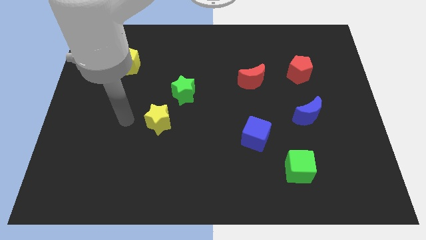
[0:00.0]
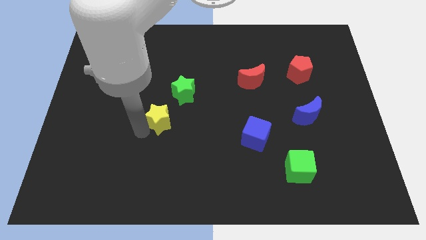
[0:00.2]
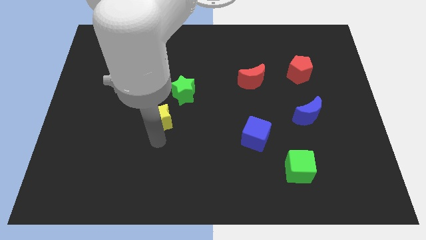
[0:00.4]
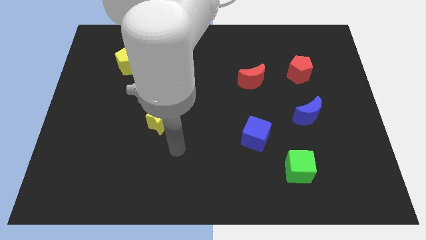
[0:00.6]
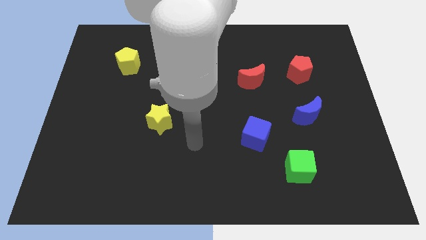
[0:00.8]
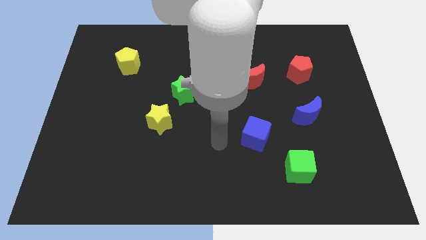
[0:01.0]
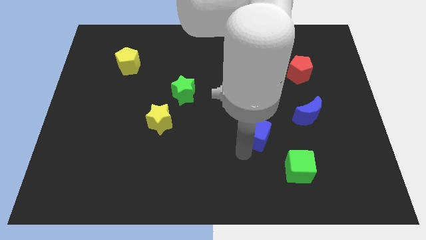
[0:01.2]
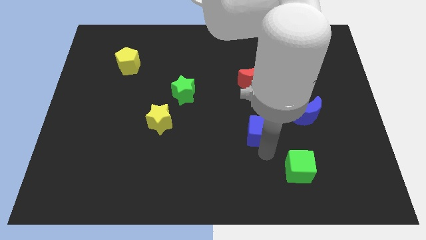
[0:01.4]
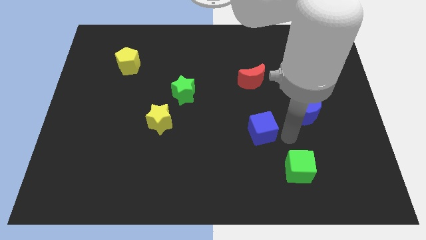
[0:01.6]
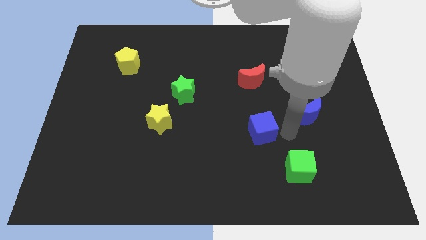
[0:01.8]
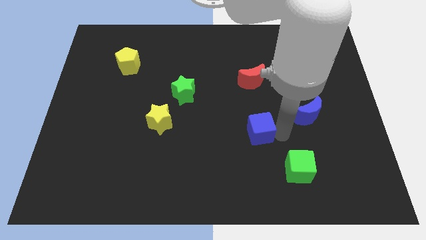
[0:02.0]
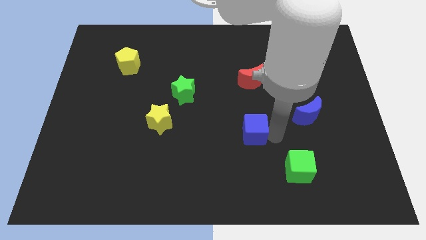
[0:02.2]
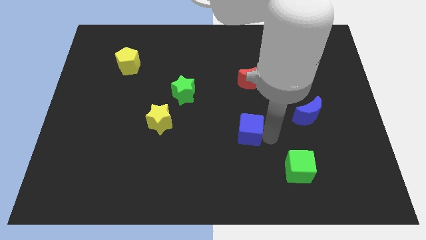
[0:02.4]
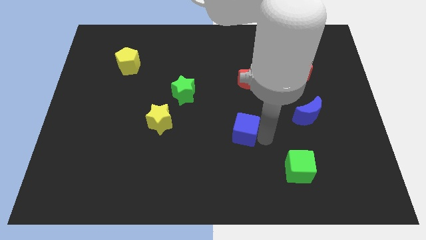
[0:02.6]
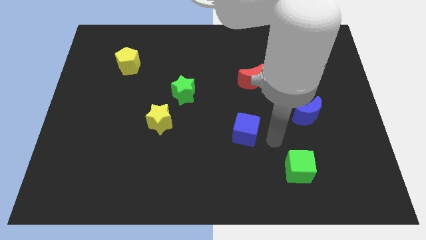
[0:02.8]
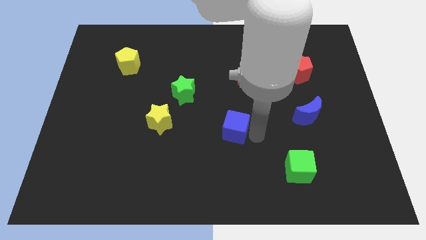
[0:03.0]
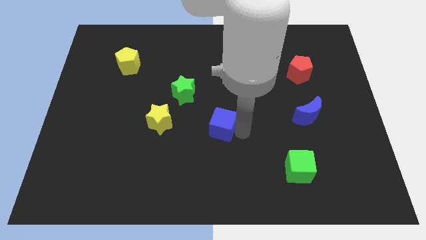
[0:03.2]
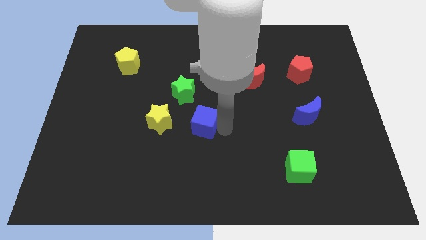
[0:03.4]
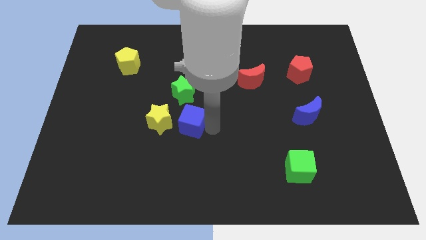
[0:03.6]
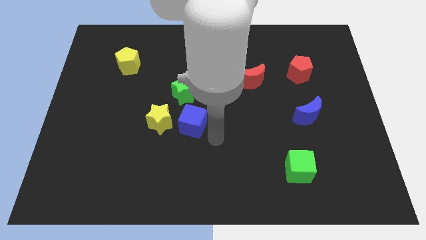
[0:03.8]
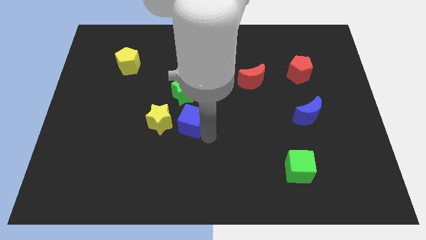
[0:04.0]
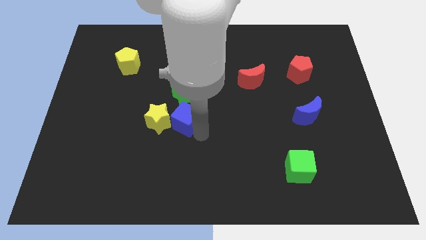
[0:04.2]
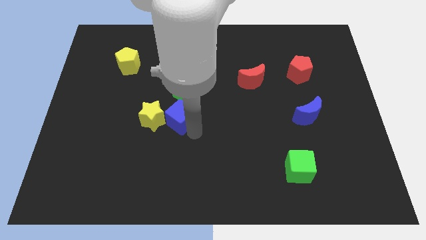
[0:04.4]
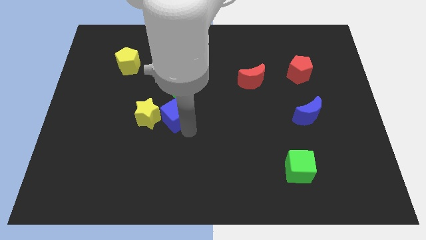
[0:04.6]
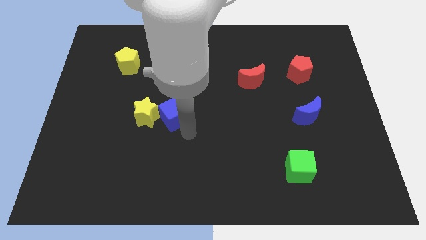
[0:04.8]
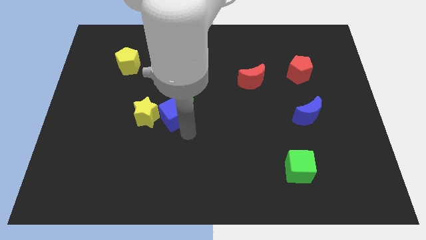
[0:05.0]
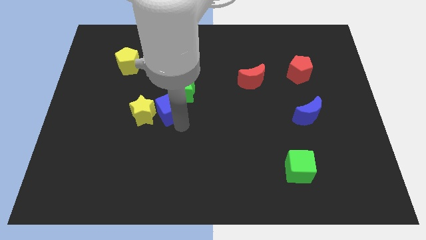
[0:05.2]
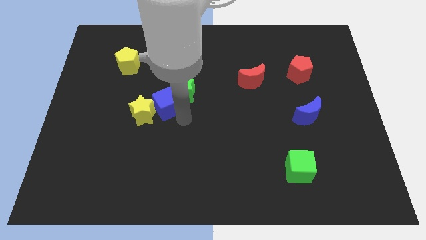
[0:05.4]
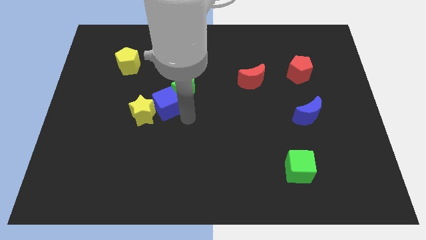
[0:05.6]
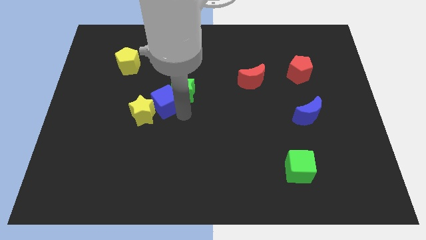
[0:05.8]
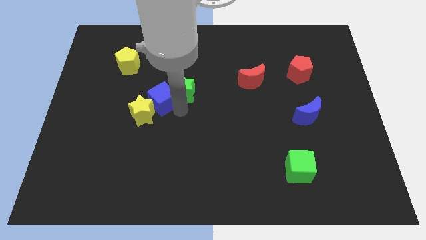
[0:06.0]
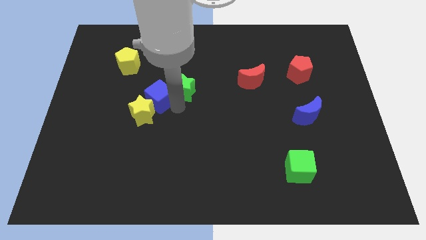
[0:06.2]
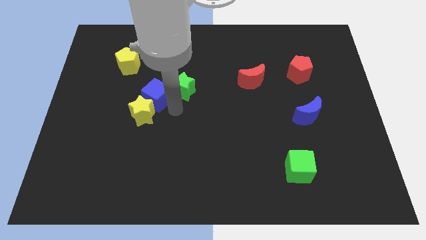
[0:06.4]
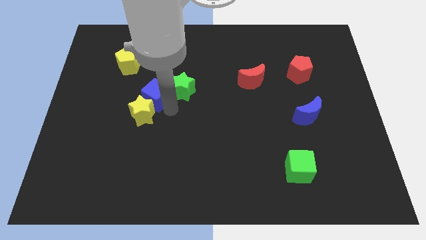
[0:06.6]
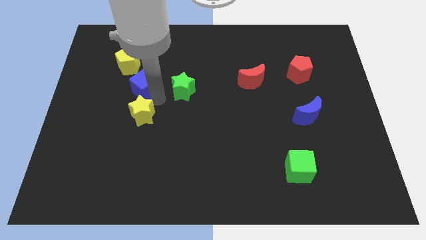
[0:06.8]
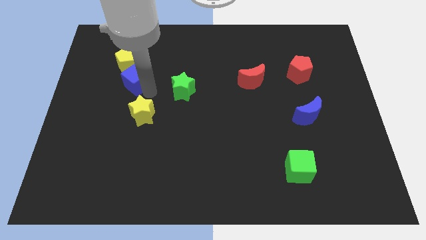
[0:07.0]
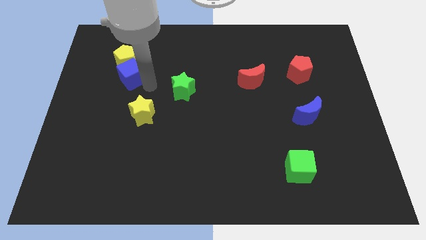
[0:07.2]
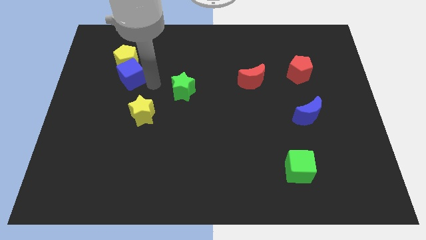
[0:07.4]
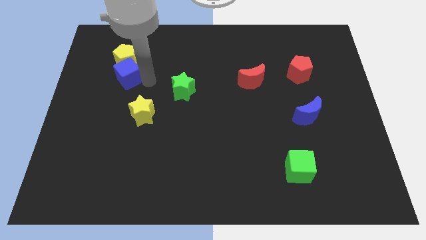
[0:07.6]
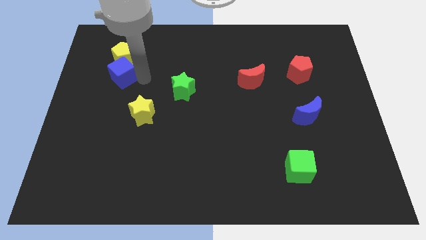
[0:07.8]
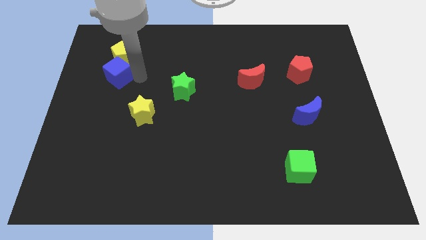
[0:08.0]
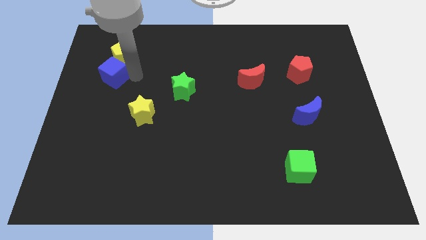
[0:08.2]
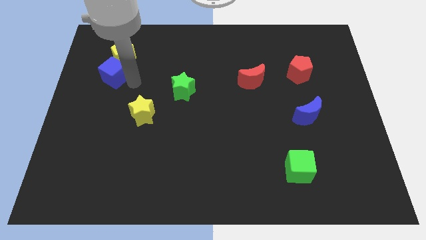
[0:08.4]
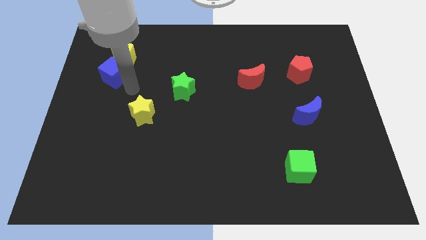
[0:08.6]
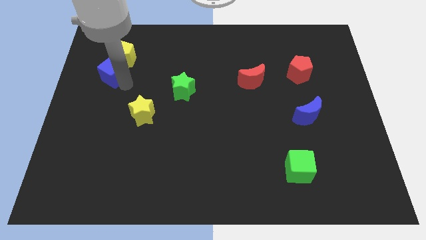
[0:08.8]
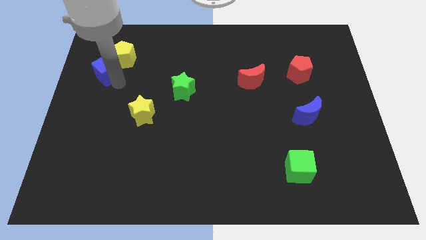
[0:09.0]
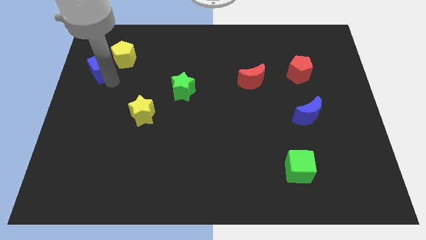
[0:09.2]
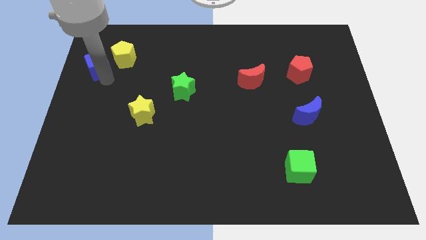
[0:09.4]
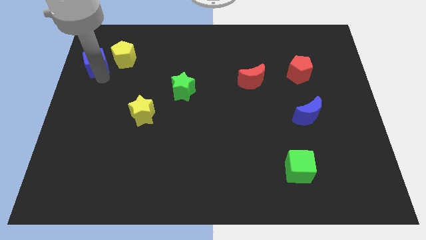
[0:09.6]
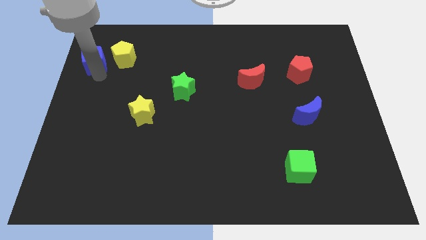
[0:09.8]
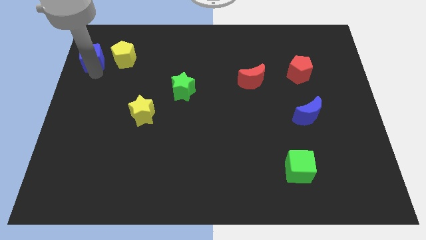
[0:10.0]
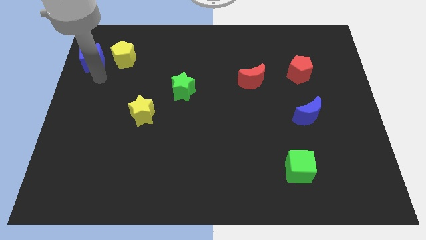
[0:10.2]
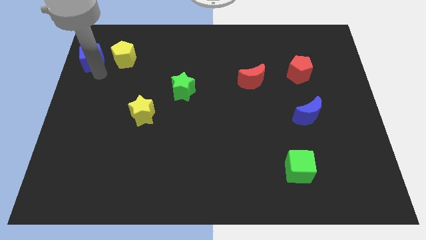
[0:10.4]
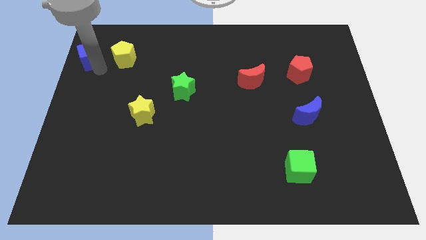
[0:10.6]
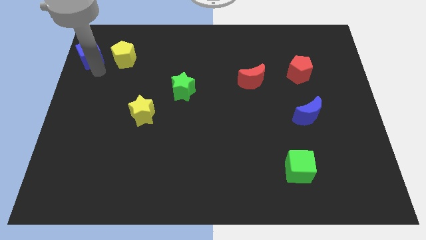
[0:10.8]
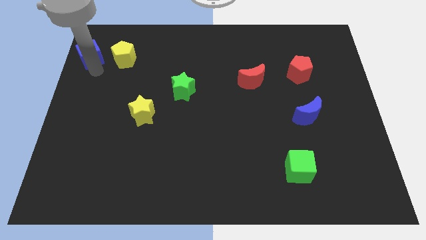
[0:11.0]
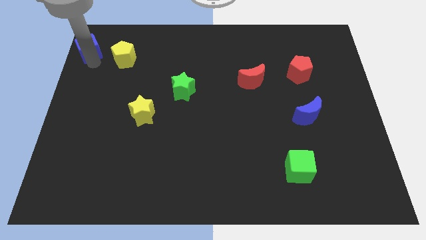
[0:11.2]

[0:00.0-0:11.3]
slide the blue cube to the top left of the board

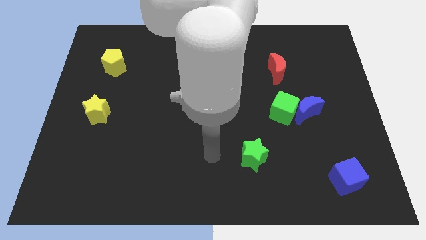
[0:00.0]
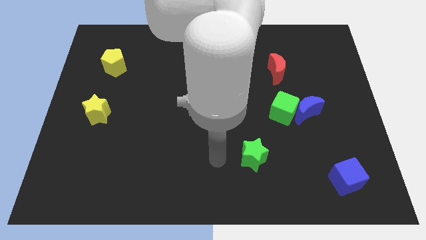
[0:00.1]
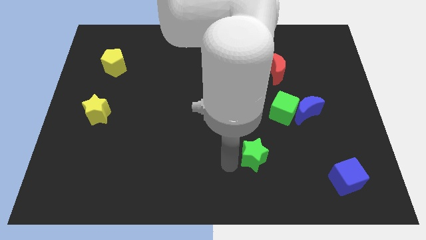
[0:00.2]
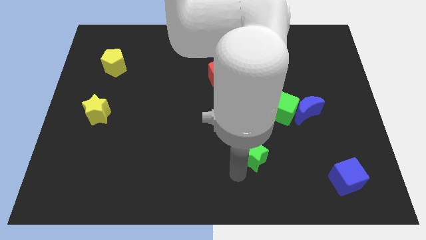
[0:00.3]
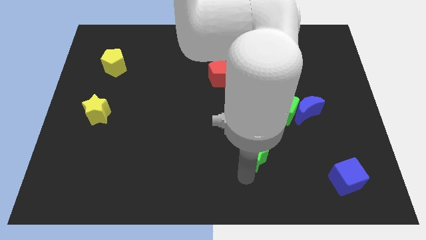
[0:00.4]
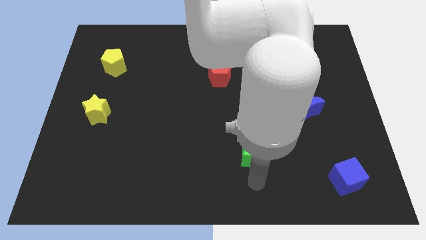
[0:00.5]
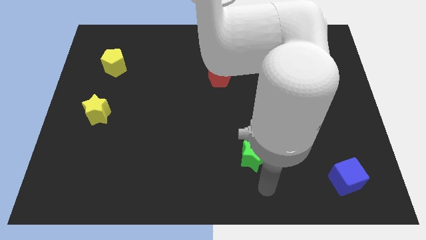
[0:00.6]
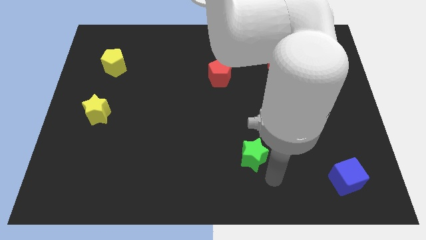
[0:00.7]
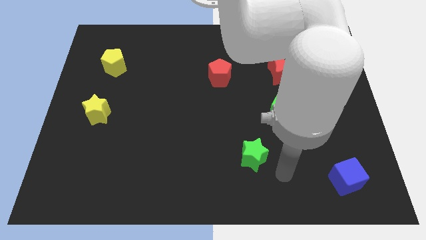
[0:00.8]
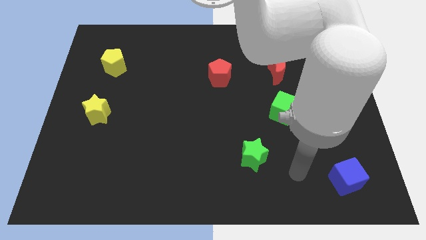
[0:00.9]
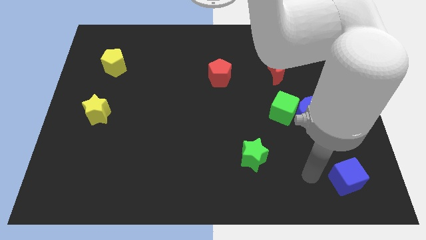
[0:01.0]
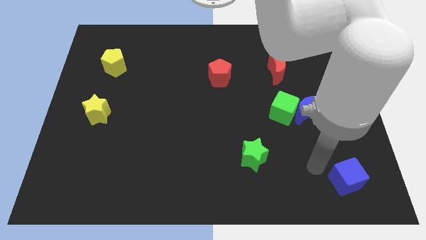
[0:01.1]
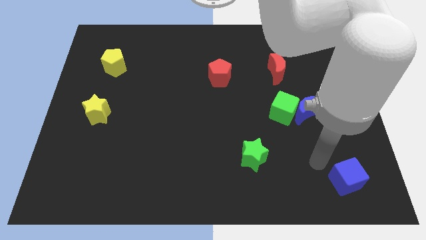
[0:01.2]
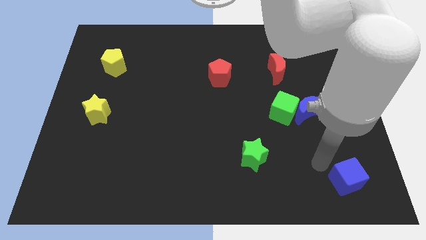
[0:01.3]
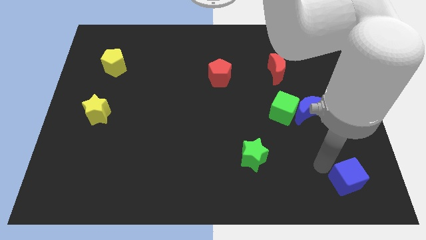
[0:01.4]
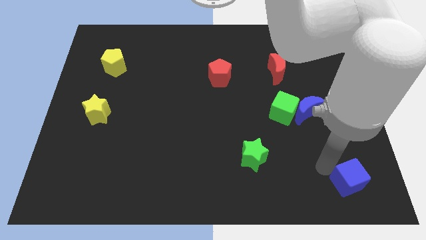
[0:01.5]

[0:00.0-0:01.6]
put the blue cube to the lower right corner
